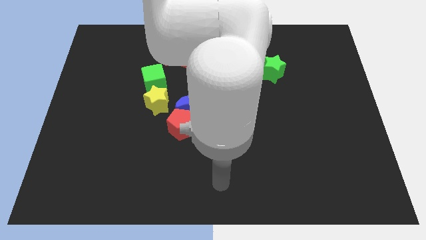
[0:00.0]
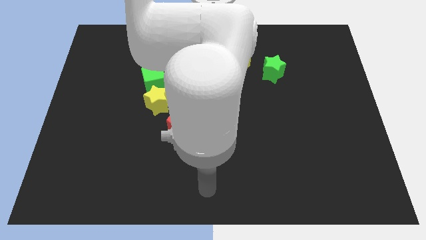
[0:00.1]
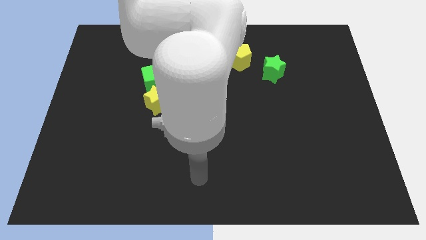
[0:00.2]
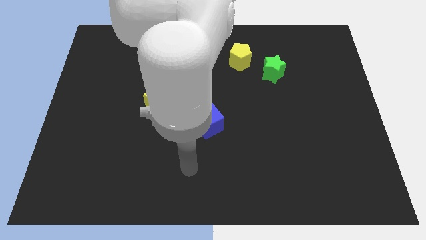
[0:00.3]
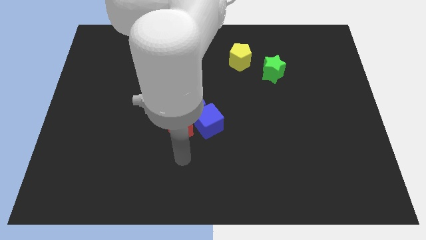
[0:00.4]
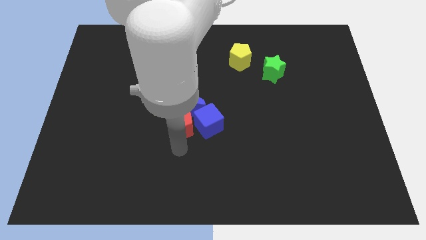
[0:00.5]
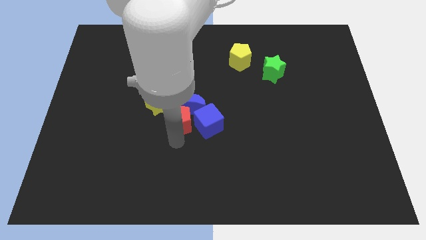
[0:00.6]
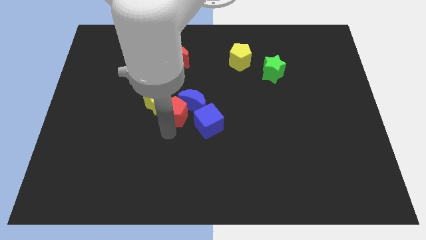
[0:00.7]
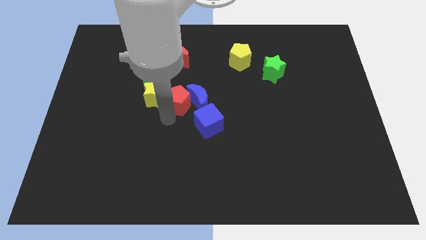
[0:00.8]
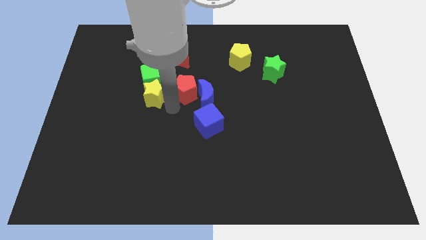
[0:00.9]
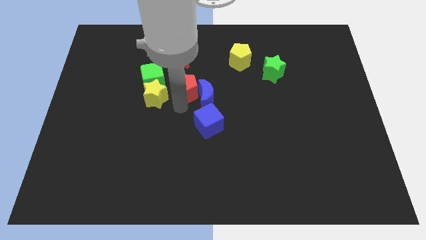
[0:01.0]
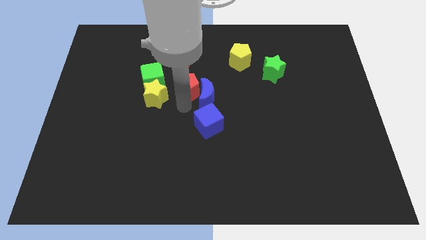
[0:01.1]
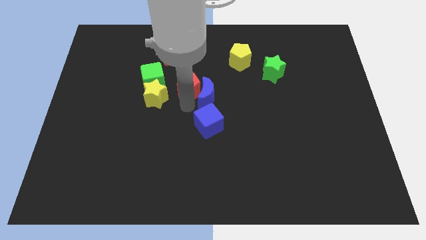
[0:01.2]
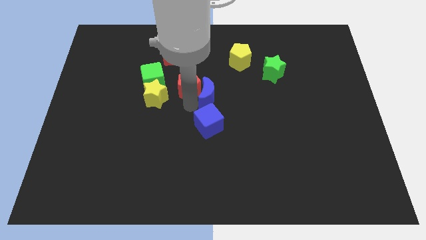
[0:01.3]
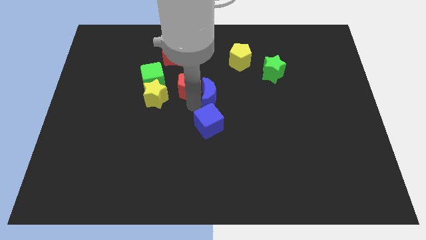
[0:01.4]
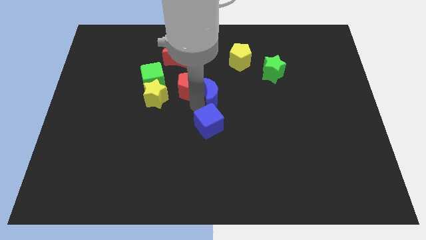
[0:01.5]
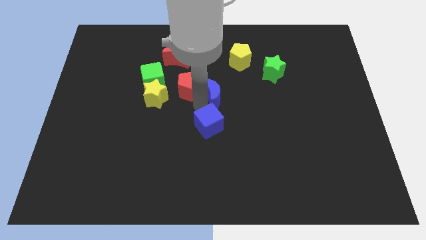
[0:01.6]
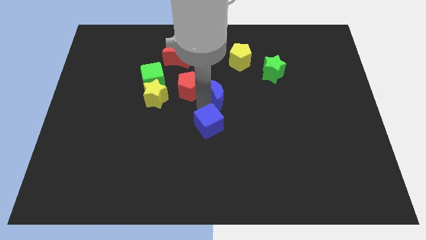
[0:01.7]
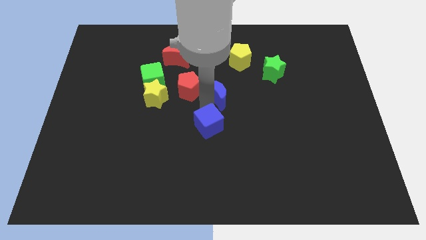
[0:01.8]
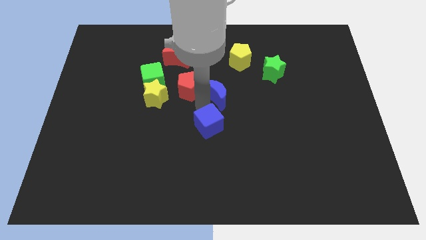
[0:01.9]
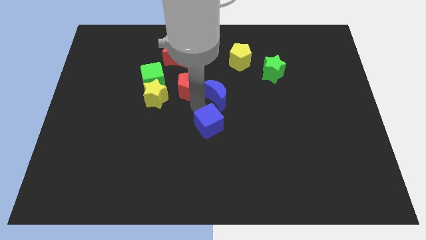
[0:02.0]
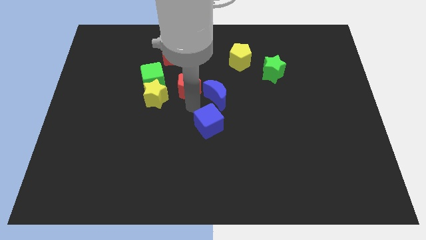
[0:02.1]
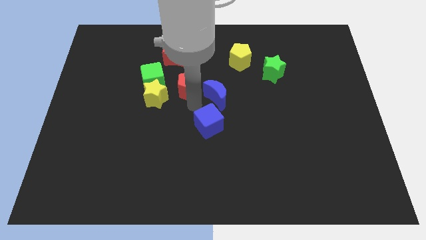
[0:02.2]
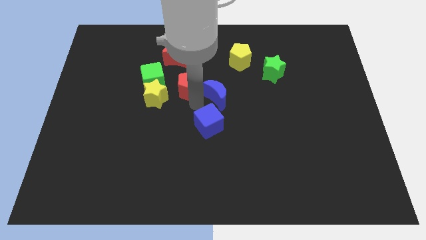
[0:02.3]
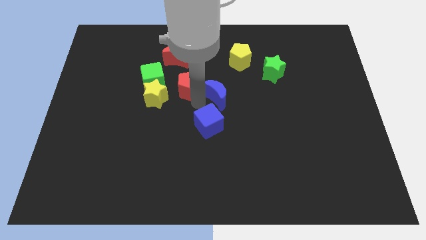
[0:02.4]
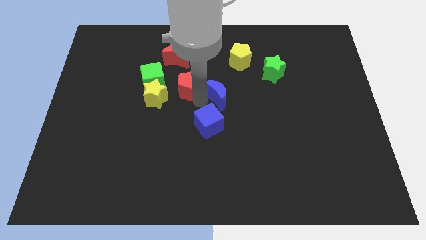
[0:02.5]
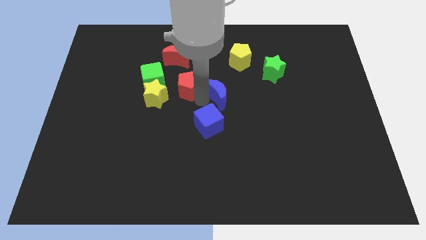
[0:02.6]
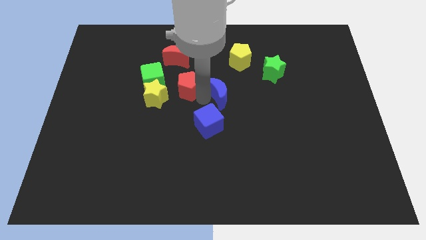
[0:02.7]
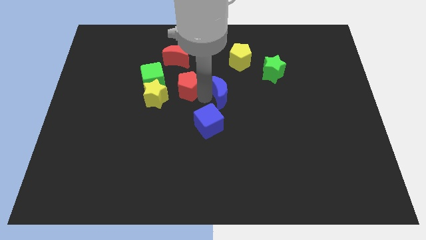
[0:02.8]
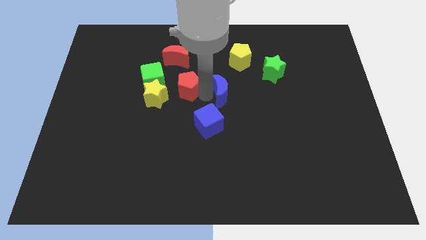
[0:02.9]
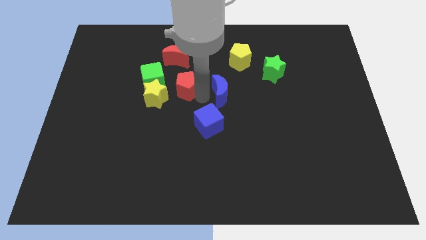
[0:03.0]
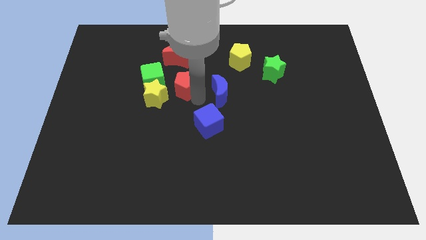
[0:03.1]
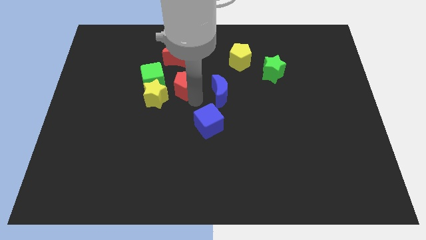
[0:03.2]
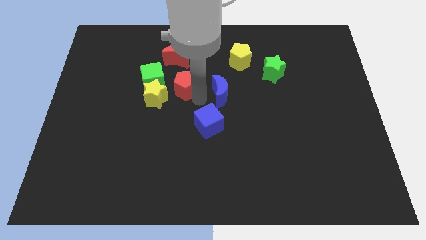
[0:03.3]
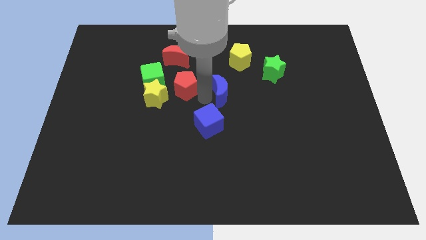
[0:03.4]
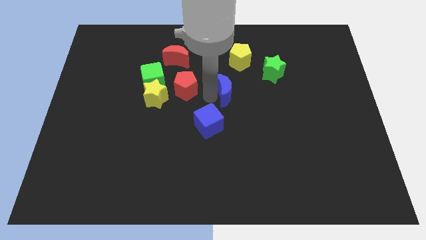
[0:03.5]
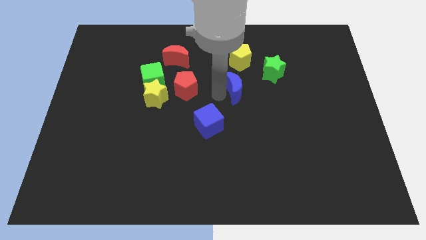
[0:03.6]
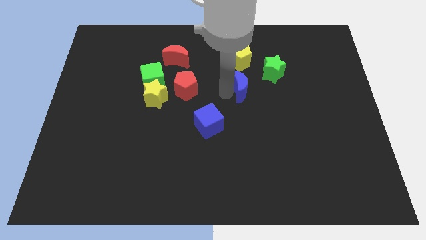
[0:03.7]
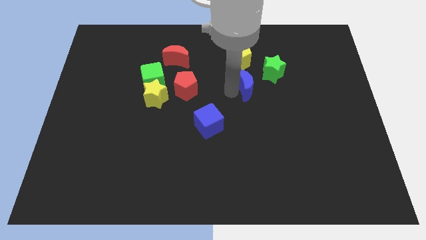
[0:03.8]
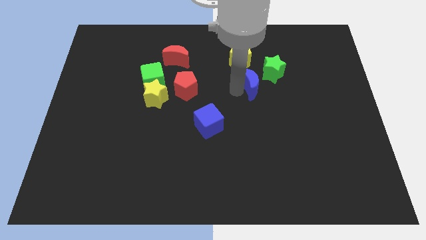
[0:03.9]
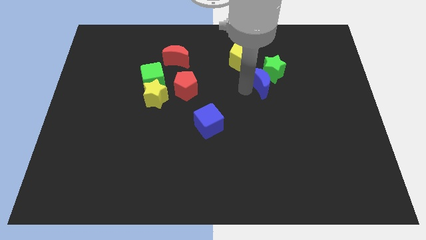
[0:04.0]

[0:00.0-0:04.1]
slide the blue moon towards the green star

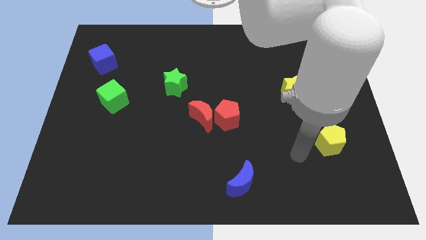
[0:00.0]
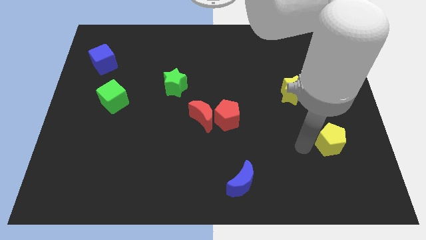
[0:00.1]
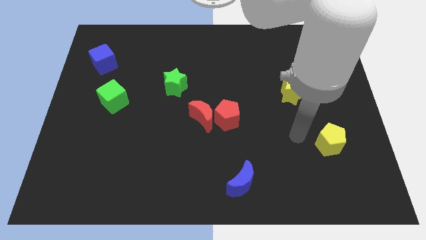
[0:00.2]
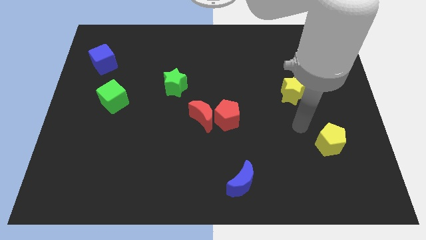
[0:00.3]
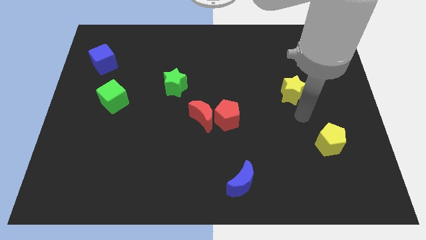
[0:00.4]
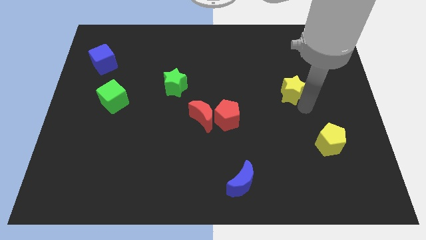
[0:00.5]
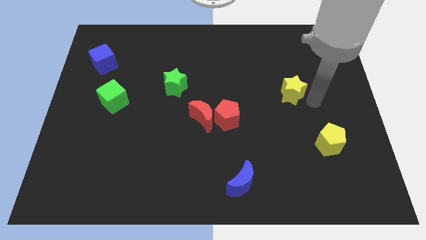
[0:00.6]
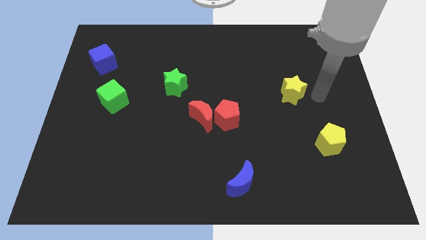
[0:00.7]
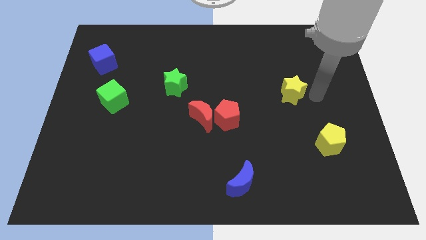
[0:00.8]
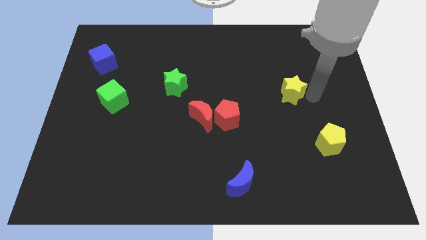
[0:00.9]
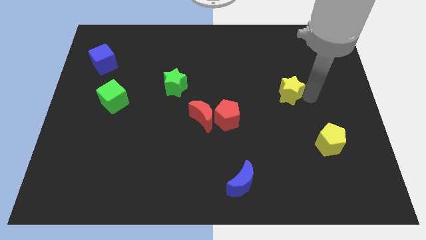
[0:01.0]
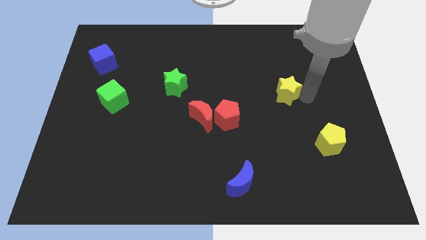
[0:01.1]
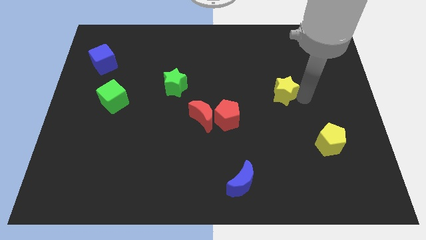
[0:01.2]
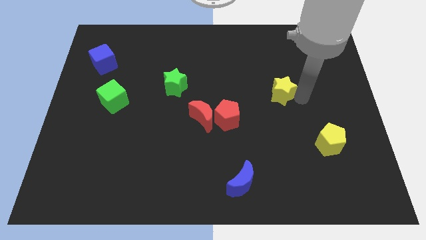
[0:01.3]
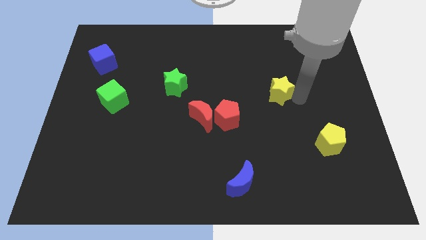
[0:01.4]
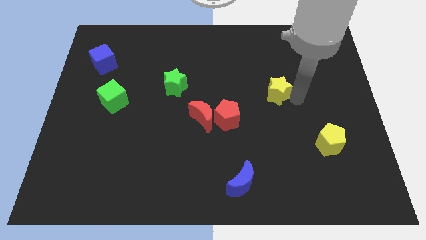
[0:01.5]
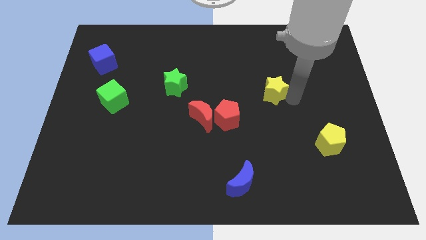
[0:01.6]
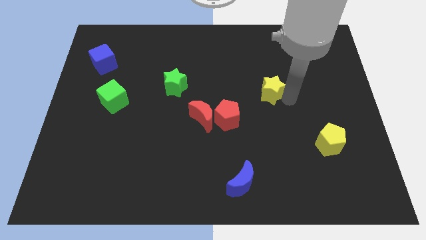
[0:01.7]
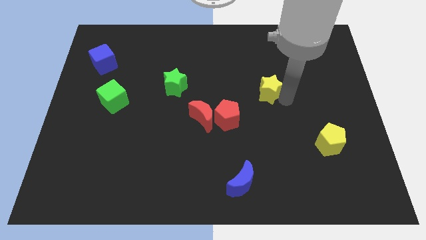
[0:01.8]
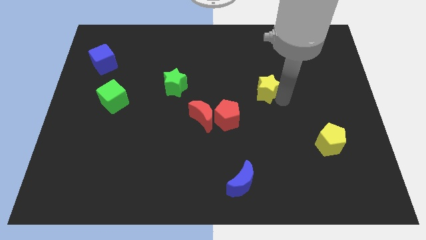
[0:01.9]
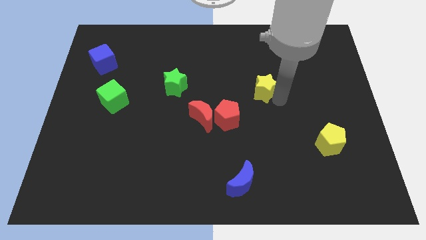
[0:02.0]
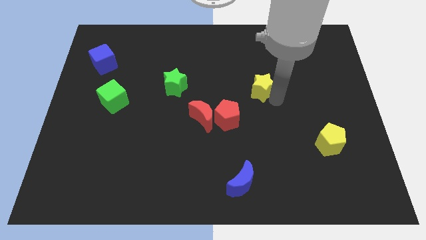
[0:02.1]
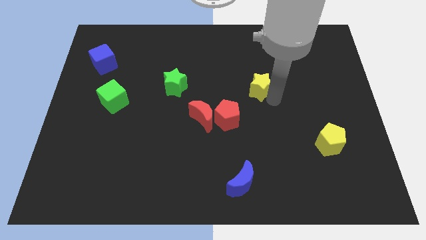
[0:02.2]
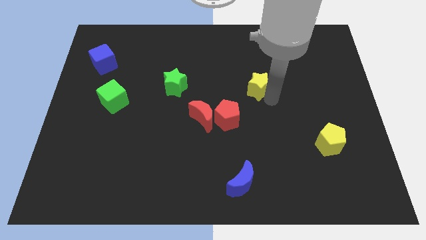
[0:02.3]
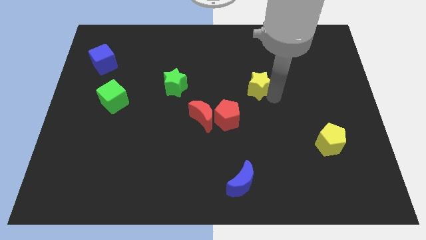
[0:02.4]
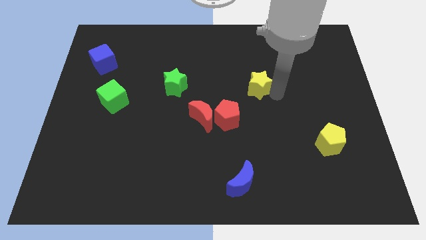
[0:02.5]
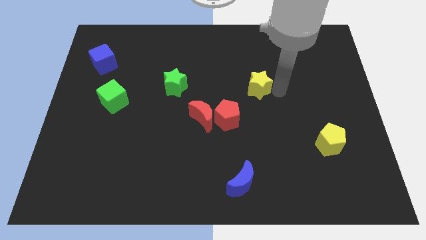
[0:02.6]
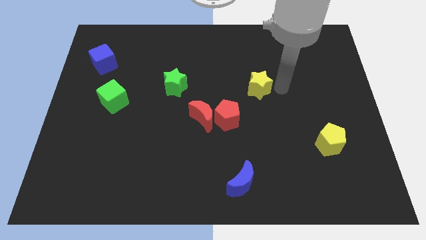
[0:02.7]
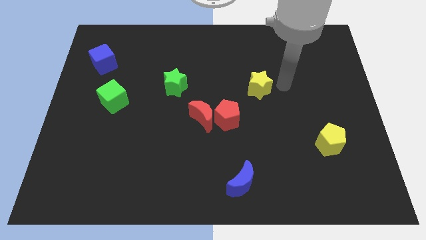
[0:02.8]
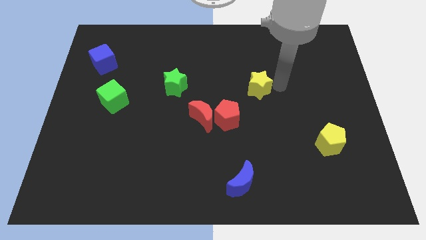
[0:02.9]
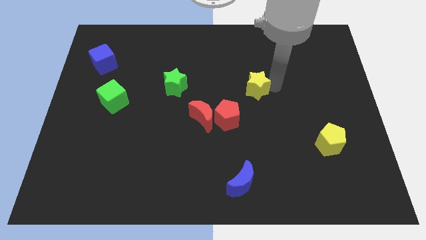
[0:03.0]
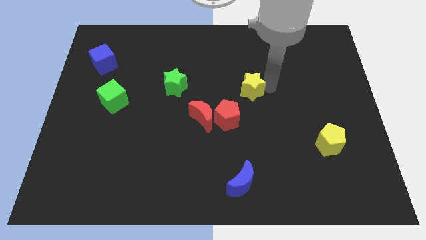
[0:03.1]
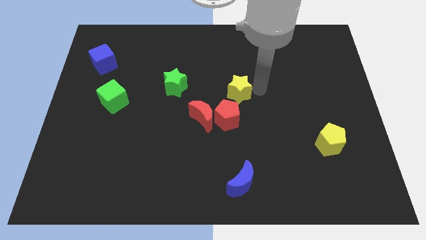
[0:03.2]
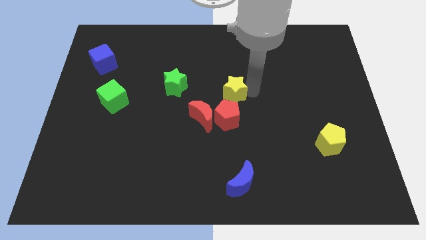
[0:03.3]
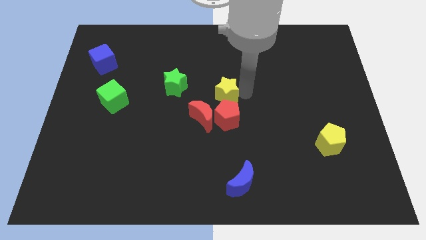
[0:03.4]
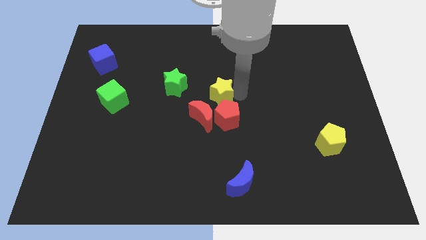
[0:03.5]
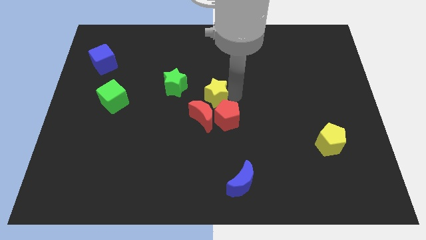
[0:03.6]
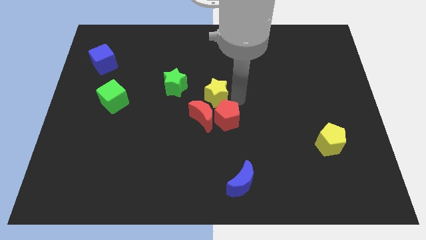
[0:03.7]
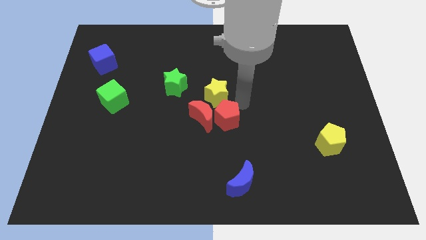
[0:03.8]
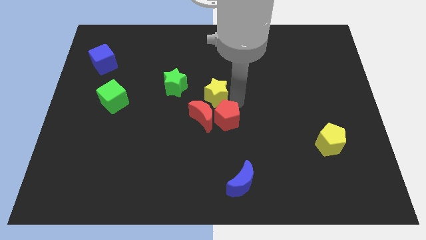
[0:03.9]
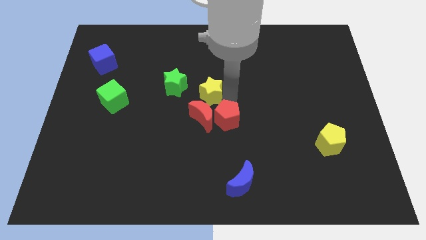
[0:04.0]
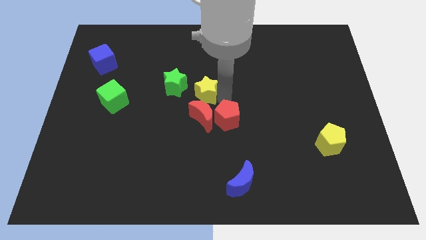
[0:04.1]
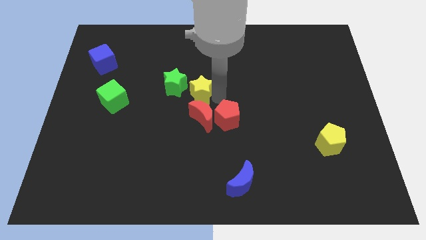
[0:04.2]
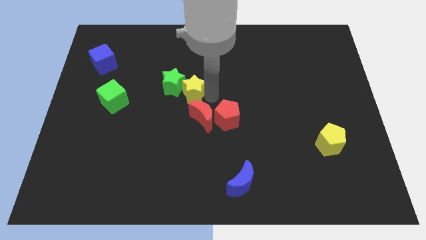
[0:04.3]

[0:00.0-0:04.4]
put the yellow star towards the green star
